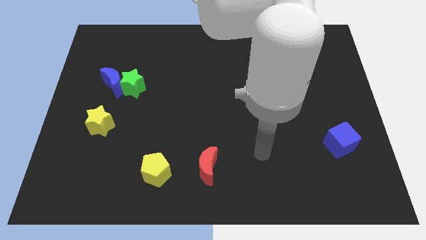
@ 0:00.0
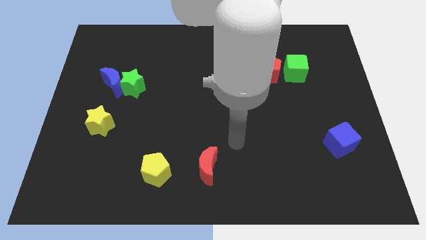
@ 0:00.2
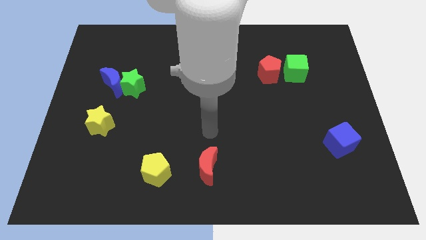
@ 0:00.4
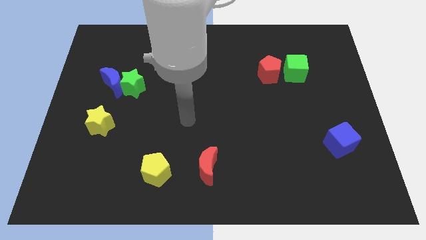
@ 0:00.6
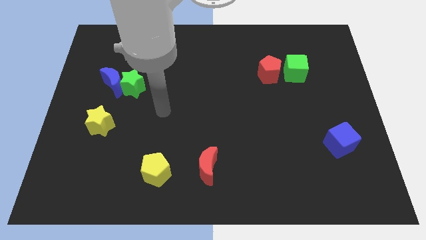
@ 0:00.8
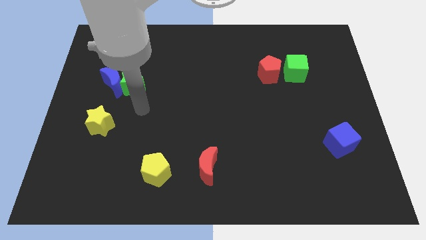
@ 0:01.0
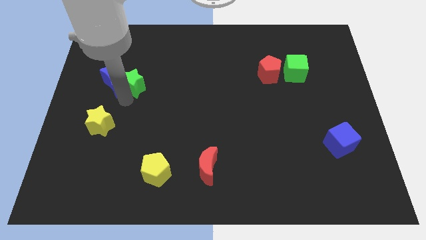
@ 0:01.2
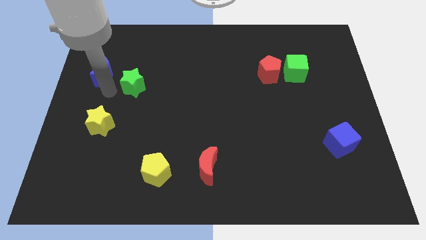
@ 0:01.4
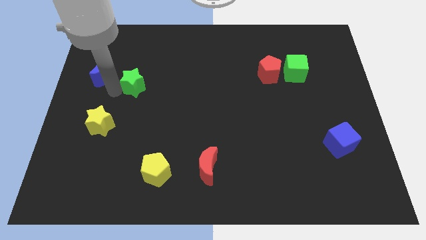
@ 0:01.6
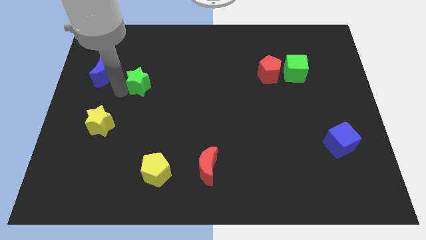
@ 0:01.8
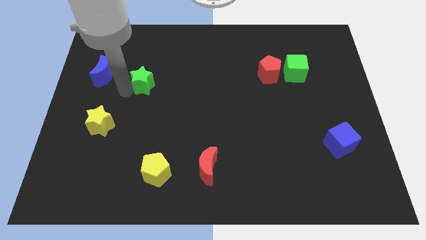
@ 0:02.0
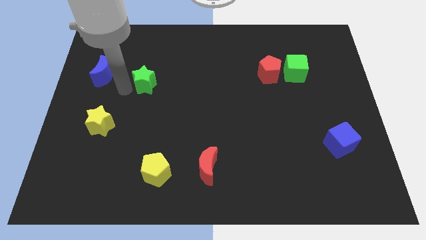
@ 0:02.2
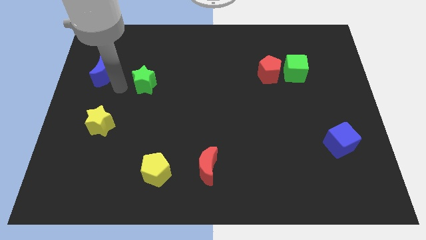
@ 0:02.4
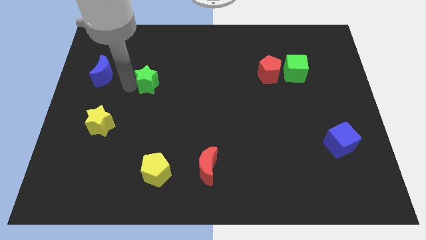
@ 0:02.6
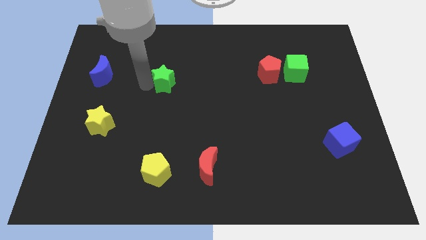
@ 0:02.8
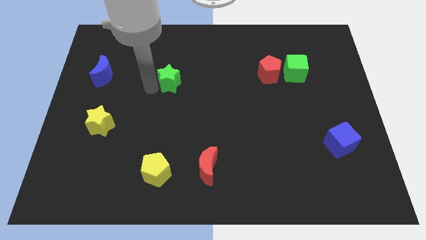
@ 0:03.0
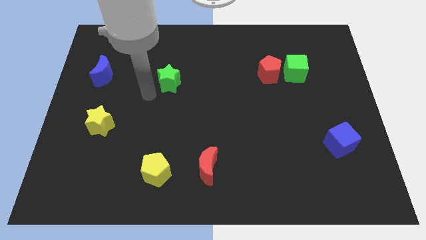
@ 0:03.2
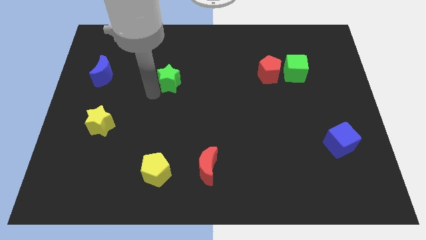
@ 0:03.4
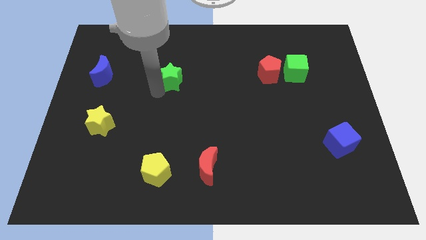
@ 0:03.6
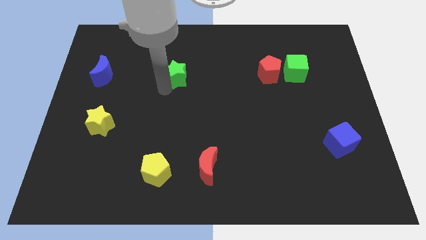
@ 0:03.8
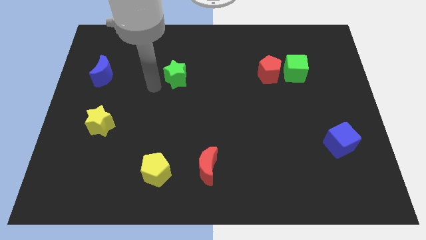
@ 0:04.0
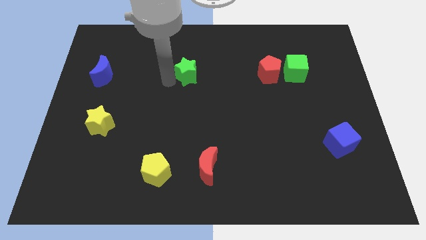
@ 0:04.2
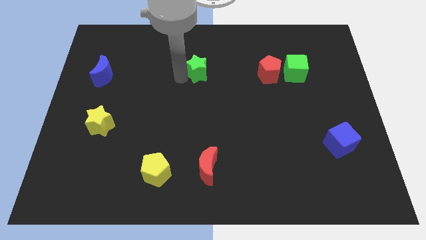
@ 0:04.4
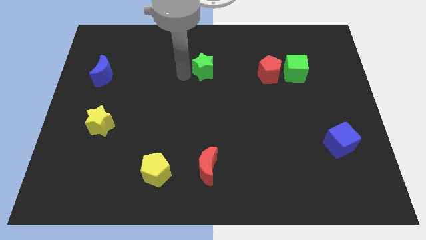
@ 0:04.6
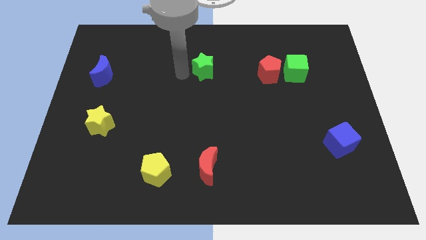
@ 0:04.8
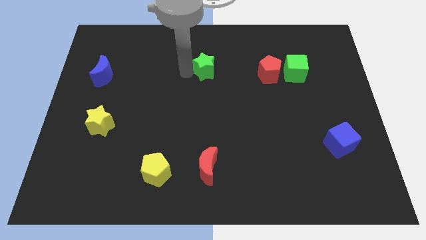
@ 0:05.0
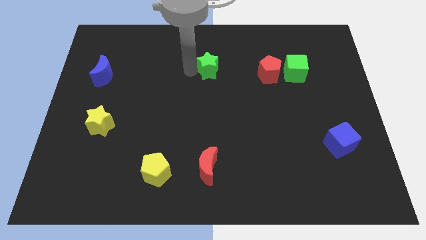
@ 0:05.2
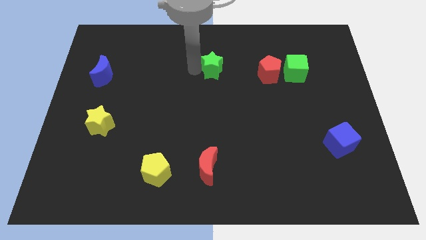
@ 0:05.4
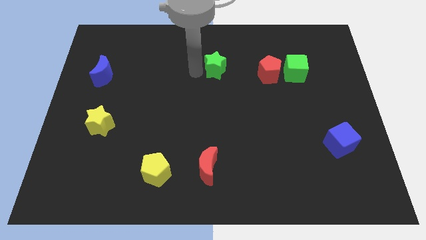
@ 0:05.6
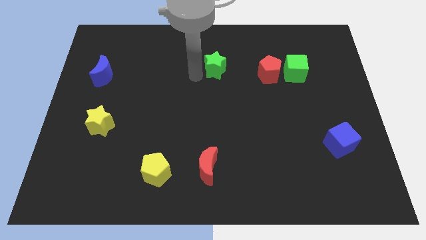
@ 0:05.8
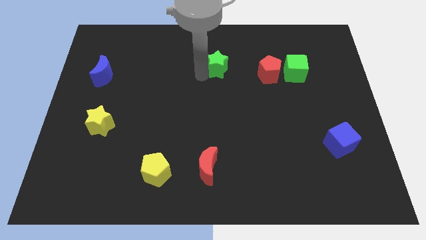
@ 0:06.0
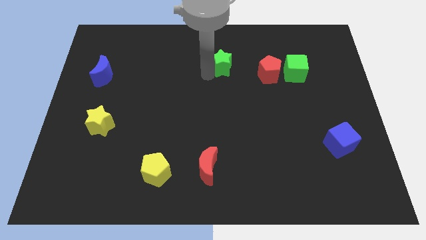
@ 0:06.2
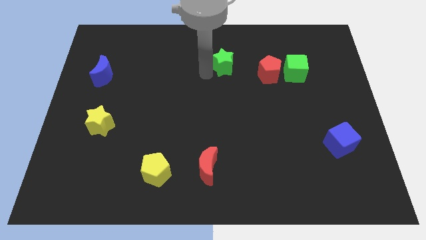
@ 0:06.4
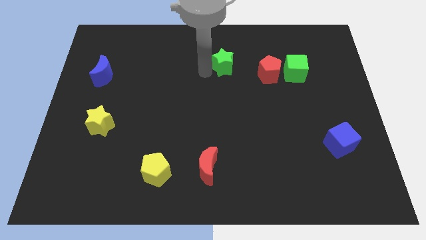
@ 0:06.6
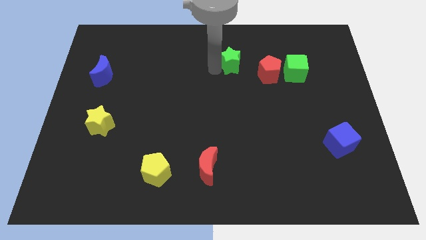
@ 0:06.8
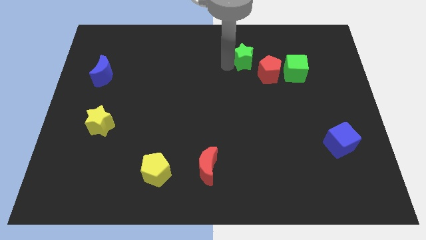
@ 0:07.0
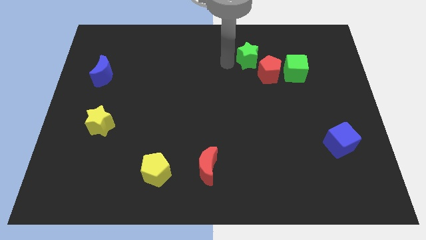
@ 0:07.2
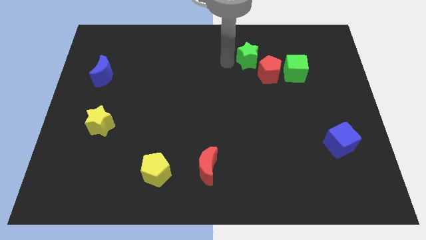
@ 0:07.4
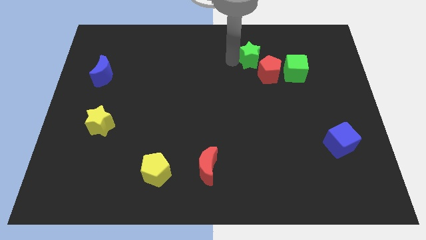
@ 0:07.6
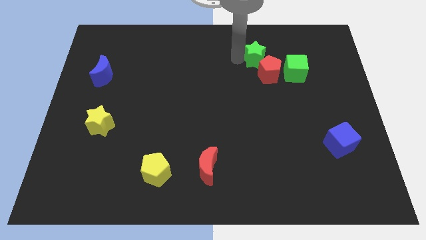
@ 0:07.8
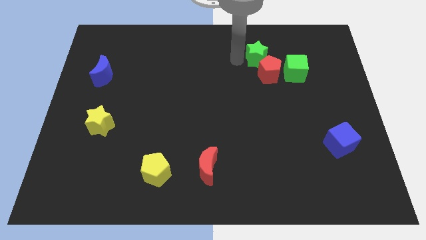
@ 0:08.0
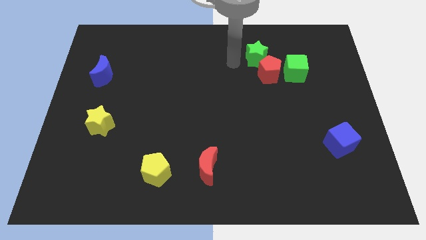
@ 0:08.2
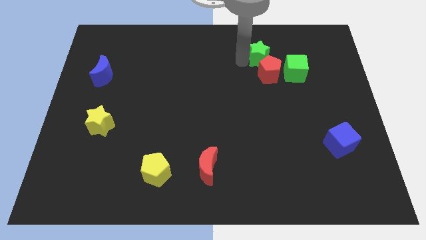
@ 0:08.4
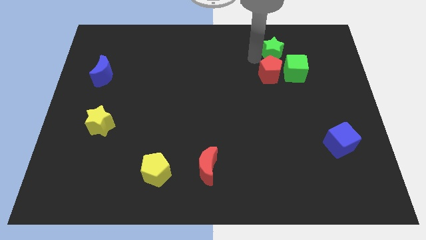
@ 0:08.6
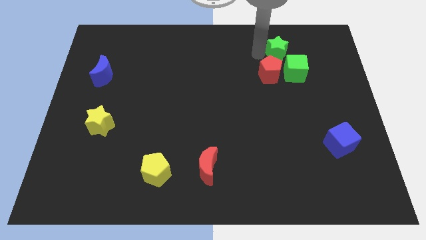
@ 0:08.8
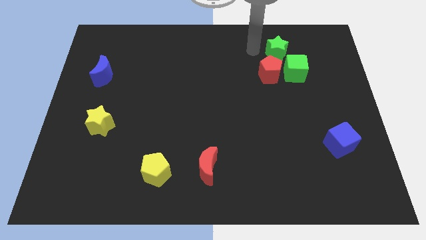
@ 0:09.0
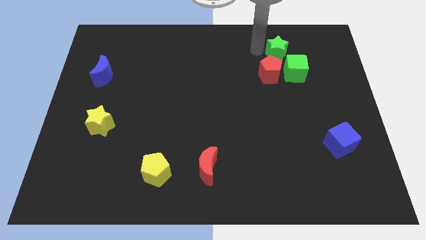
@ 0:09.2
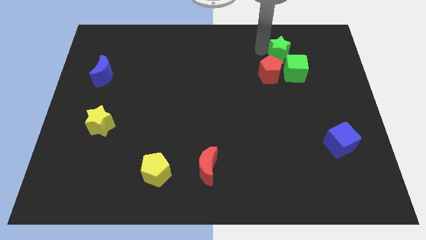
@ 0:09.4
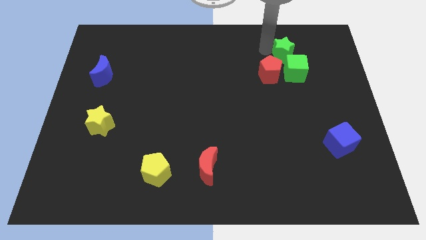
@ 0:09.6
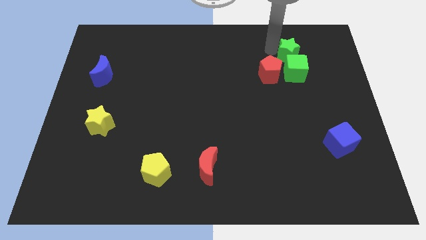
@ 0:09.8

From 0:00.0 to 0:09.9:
slide the green star to the top right of the green cube

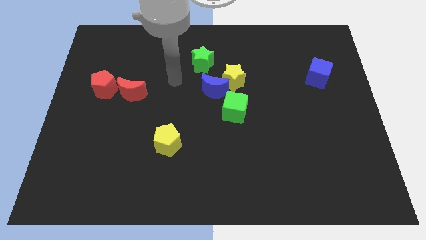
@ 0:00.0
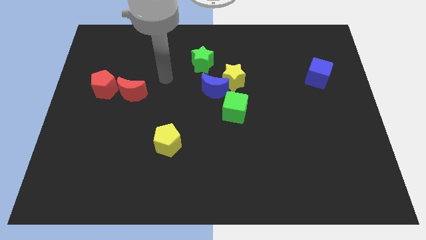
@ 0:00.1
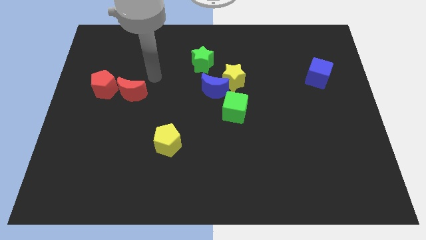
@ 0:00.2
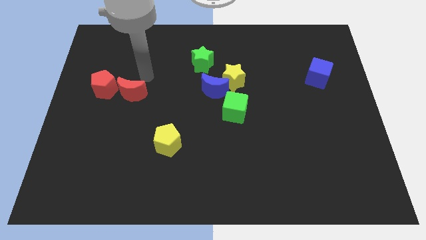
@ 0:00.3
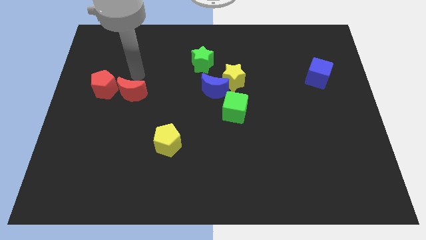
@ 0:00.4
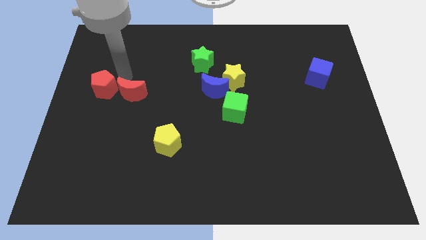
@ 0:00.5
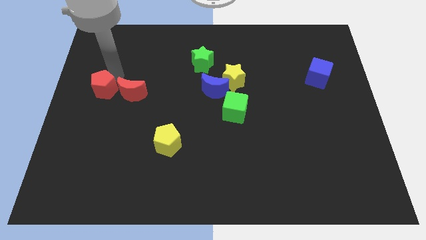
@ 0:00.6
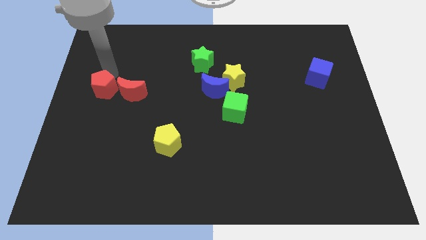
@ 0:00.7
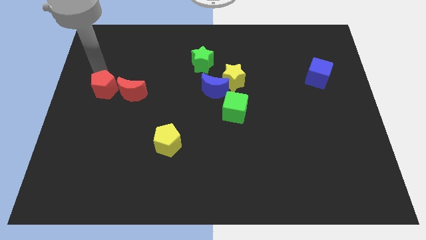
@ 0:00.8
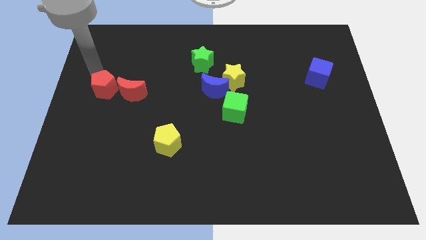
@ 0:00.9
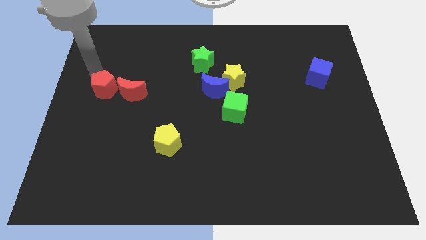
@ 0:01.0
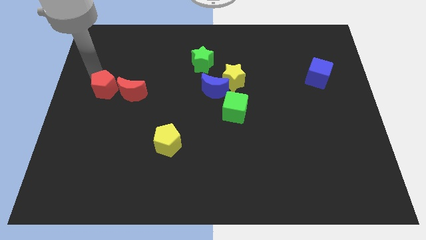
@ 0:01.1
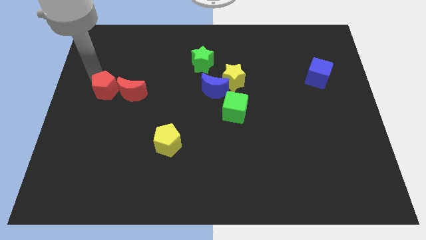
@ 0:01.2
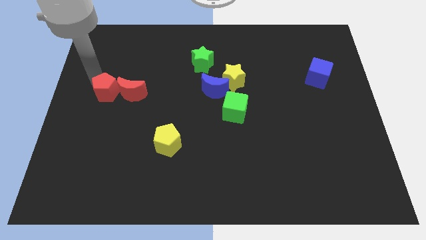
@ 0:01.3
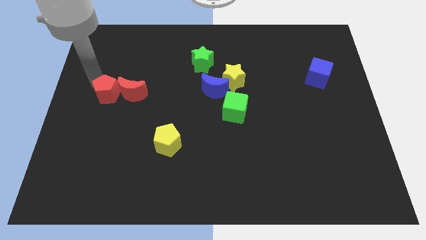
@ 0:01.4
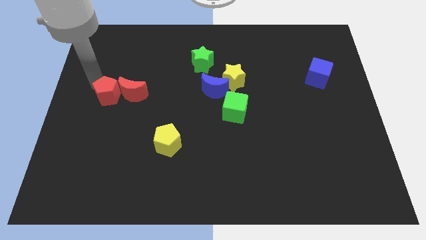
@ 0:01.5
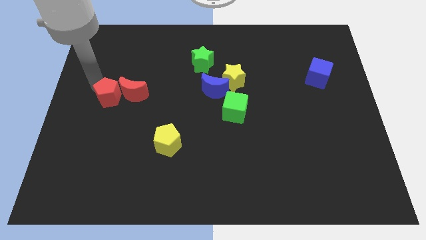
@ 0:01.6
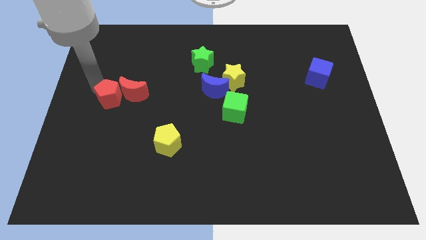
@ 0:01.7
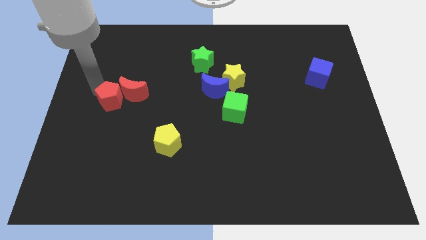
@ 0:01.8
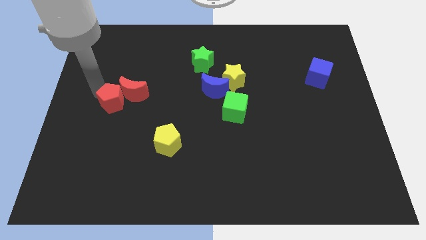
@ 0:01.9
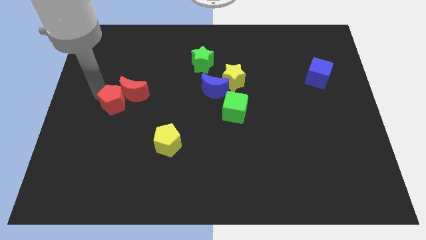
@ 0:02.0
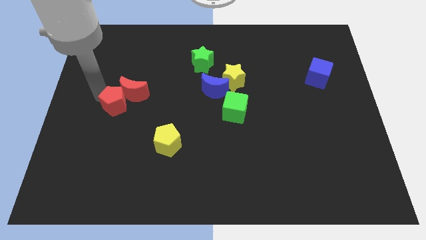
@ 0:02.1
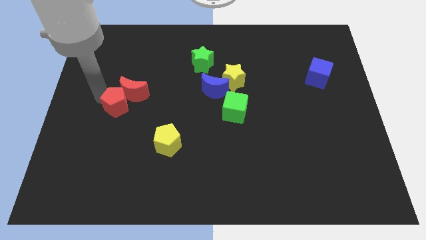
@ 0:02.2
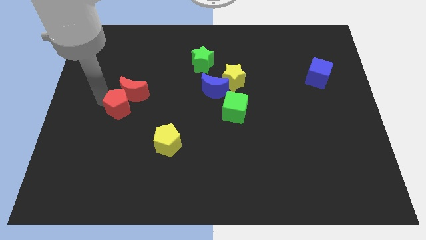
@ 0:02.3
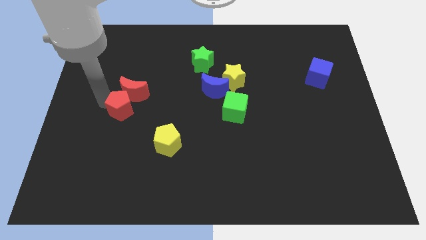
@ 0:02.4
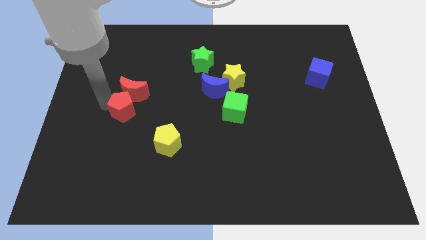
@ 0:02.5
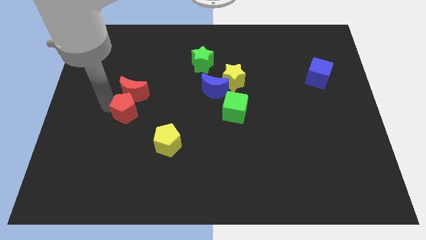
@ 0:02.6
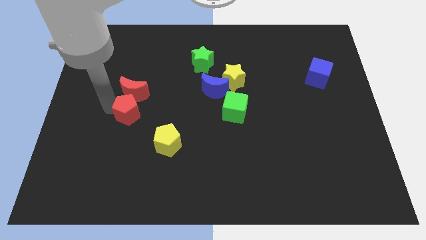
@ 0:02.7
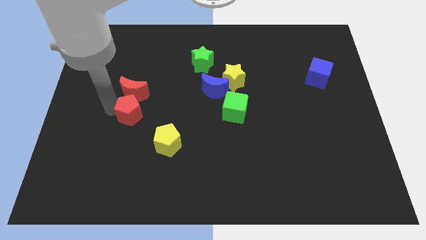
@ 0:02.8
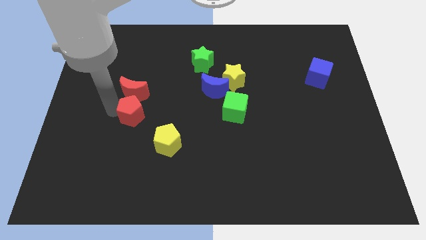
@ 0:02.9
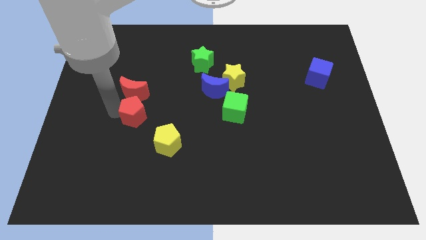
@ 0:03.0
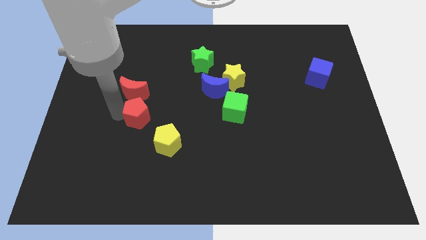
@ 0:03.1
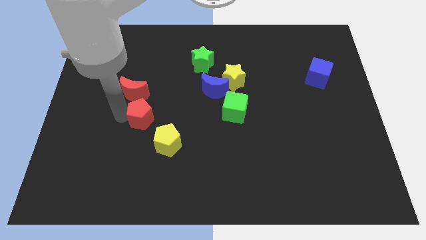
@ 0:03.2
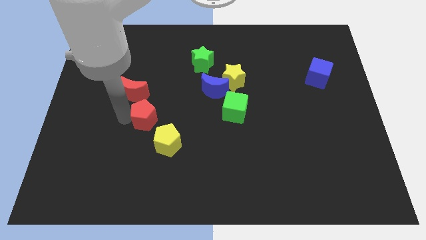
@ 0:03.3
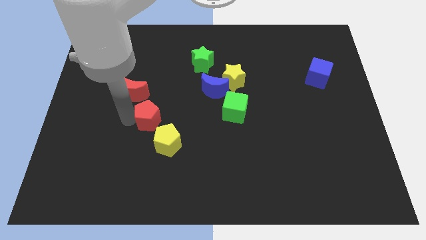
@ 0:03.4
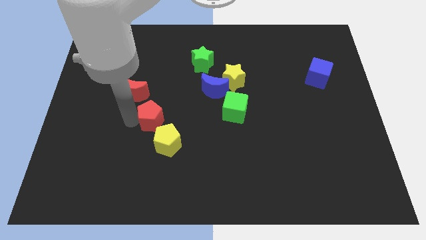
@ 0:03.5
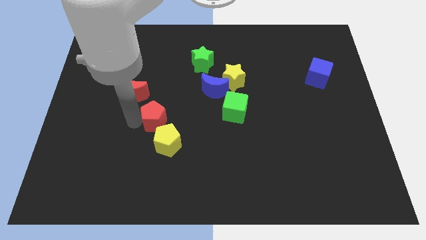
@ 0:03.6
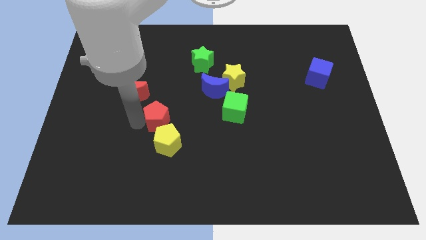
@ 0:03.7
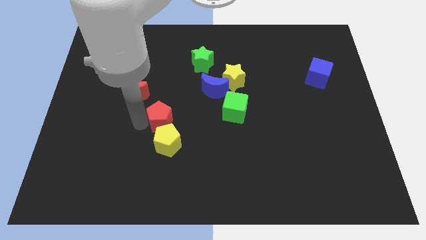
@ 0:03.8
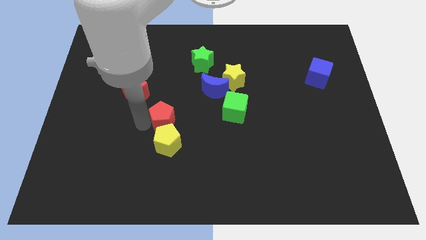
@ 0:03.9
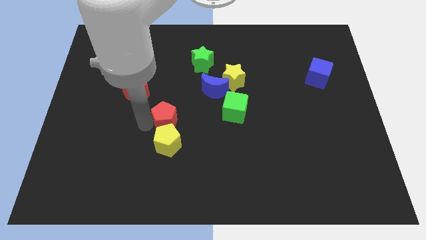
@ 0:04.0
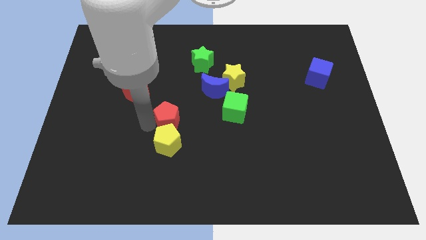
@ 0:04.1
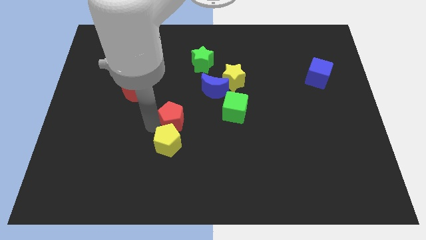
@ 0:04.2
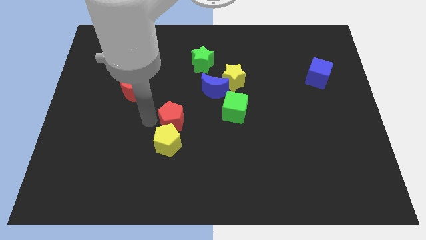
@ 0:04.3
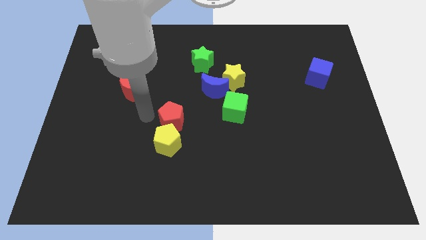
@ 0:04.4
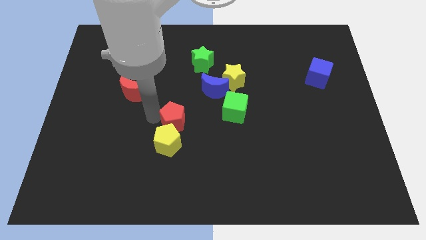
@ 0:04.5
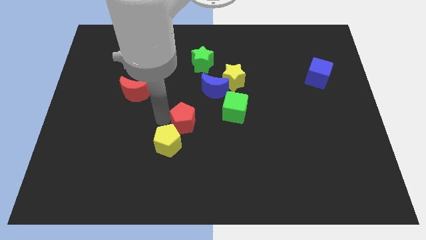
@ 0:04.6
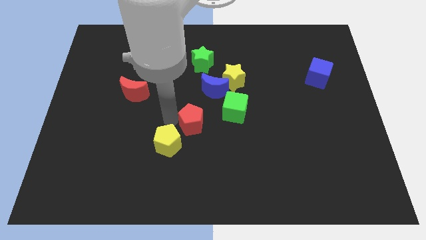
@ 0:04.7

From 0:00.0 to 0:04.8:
slide the red pentagon to the bottom left side of the green cube
